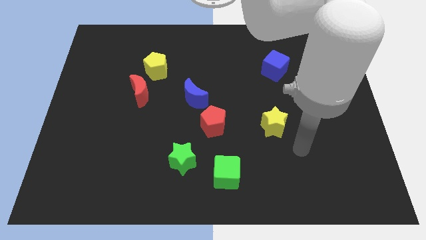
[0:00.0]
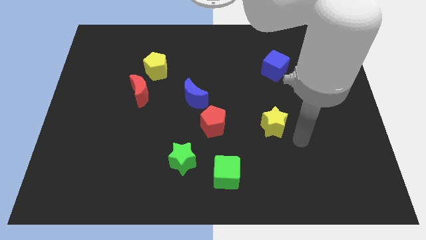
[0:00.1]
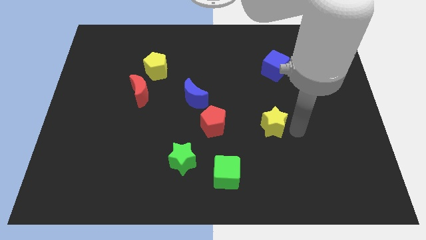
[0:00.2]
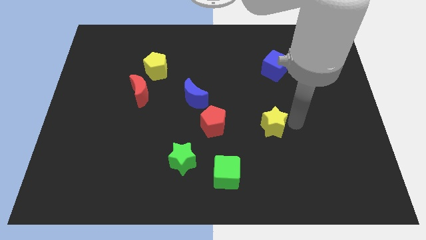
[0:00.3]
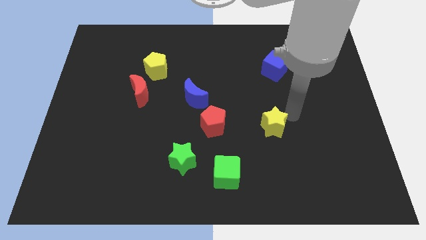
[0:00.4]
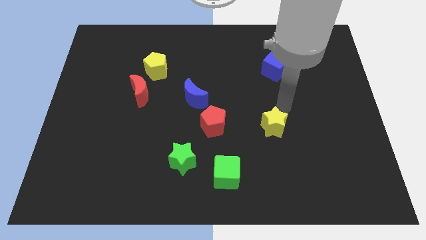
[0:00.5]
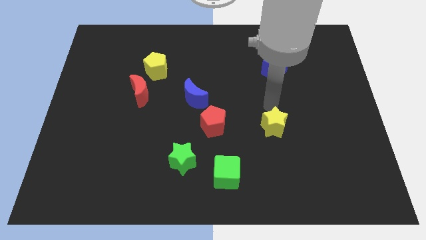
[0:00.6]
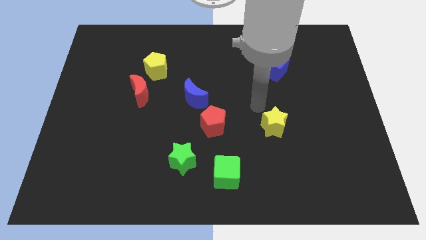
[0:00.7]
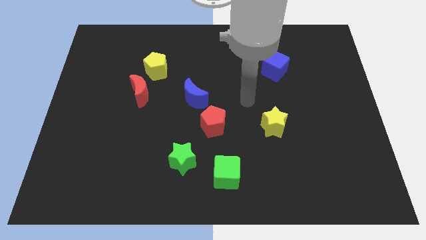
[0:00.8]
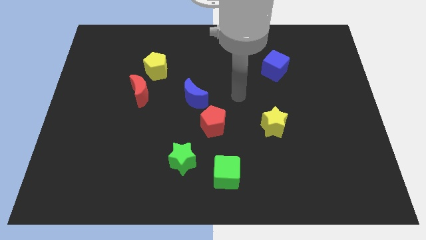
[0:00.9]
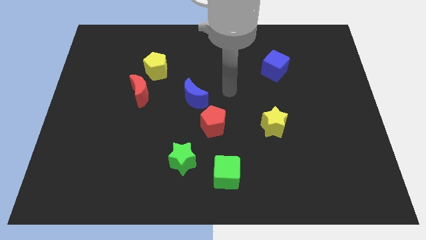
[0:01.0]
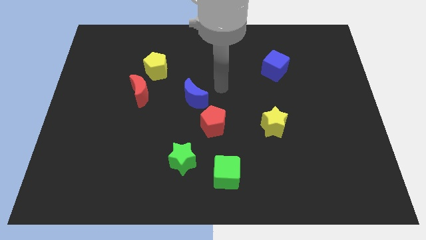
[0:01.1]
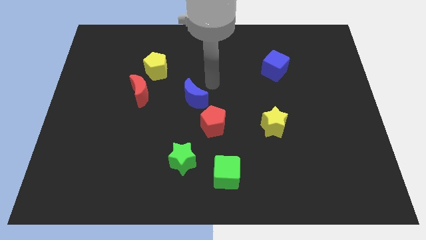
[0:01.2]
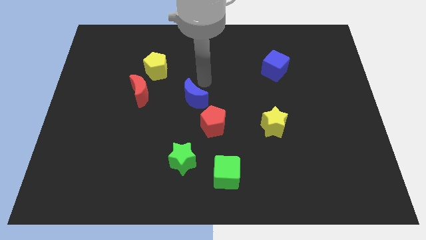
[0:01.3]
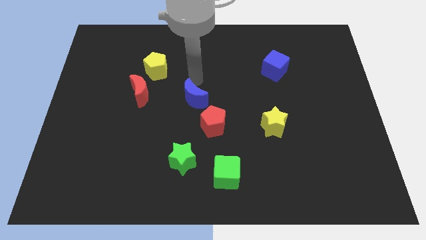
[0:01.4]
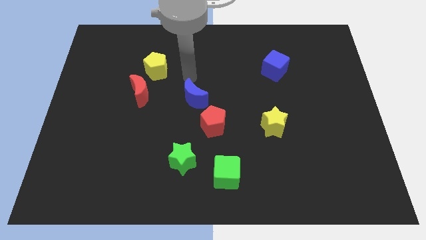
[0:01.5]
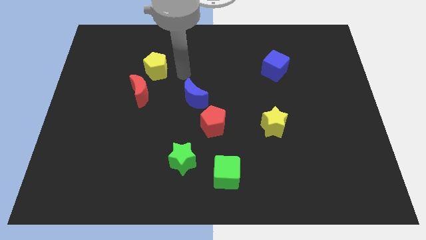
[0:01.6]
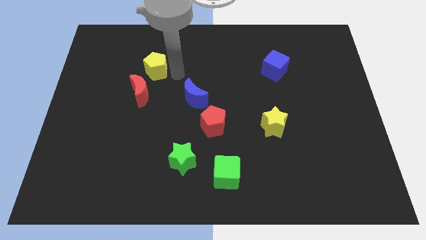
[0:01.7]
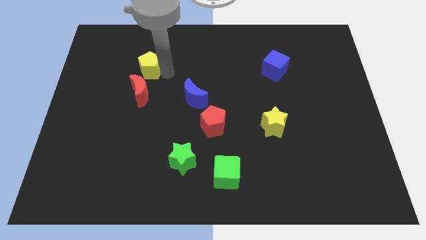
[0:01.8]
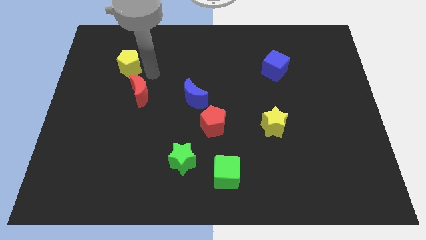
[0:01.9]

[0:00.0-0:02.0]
move the red moon away from the yellow pentagon

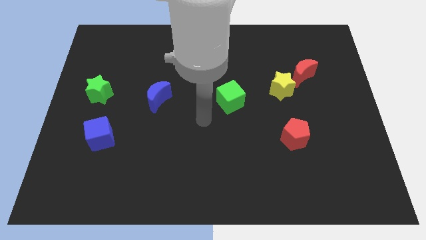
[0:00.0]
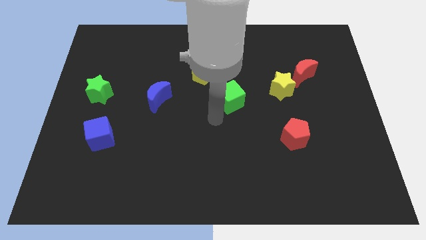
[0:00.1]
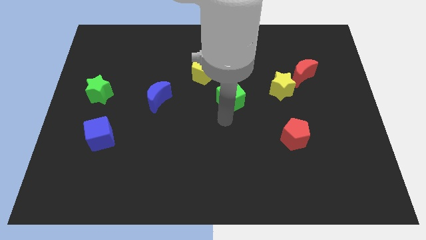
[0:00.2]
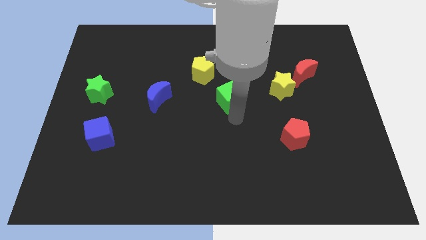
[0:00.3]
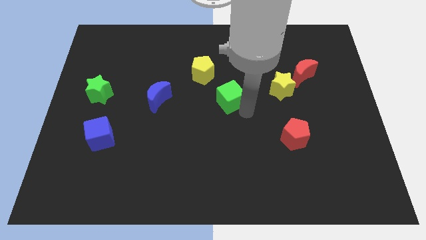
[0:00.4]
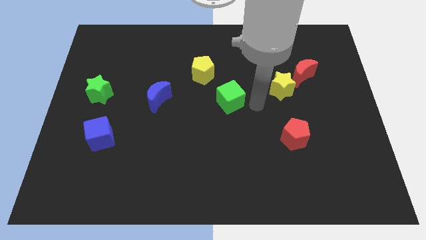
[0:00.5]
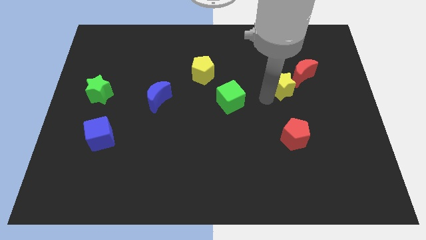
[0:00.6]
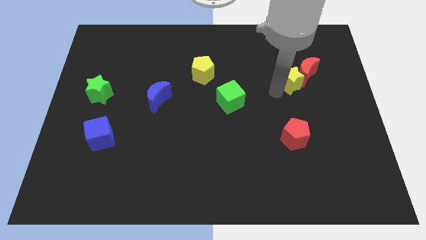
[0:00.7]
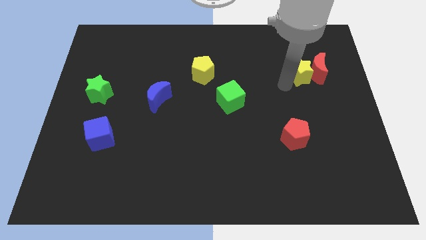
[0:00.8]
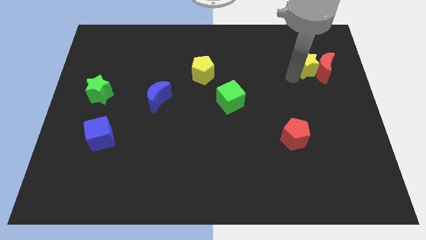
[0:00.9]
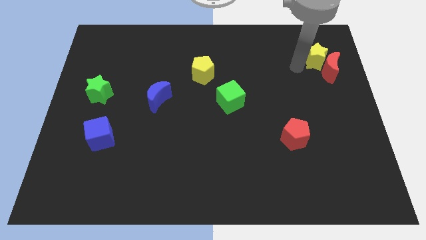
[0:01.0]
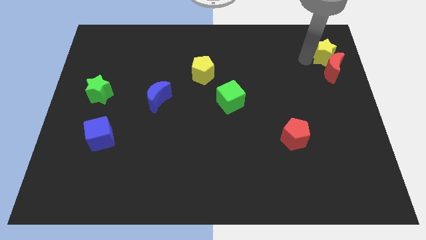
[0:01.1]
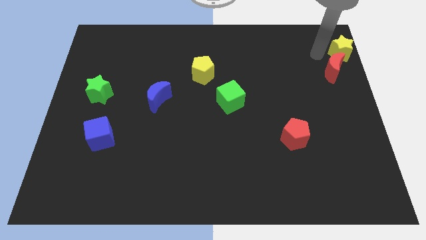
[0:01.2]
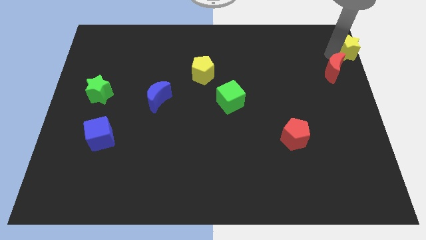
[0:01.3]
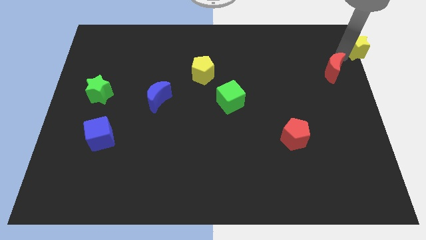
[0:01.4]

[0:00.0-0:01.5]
move the red moon away from the yellow star

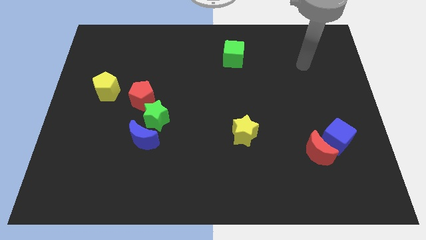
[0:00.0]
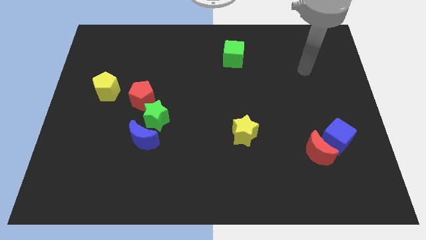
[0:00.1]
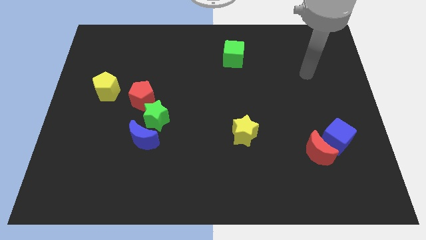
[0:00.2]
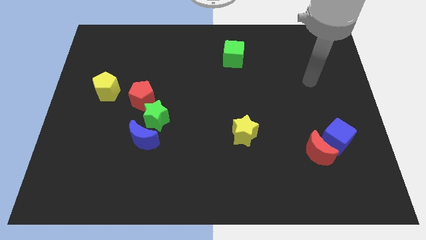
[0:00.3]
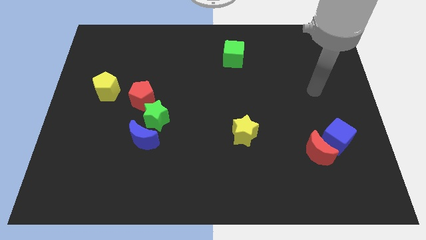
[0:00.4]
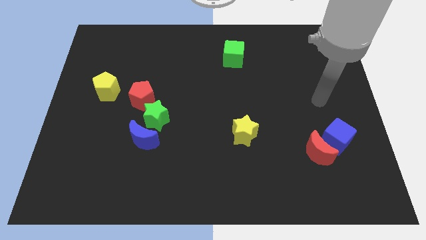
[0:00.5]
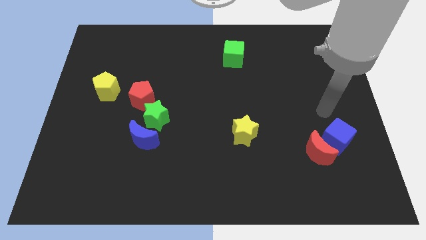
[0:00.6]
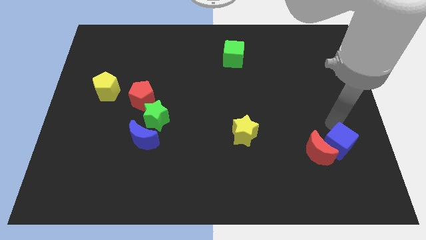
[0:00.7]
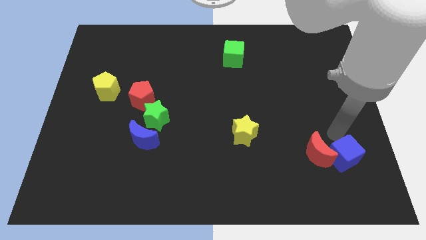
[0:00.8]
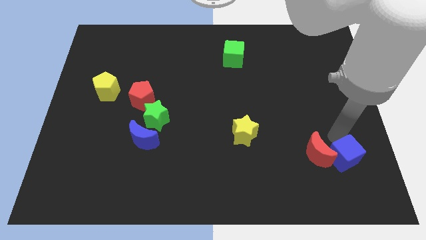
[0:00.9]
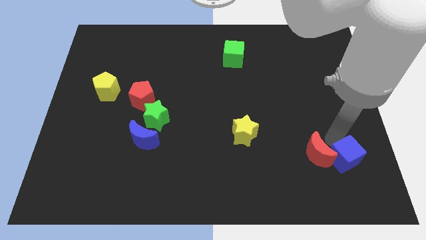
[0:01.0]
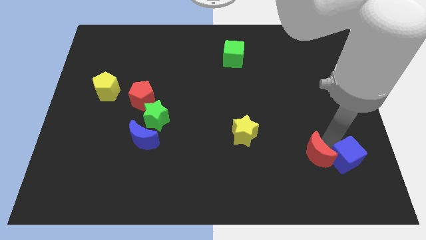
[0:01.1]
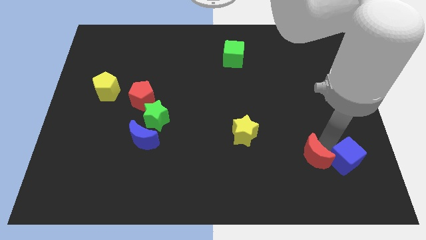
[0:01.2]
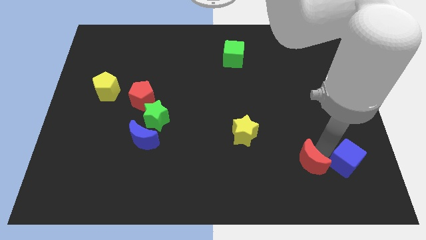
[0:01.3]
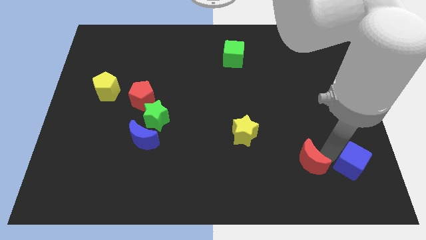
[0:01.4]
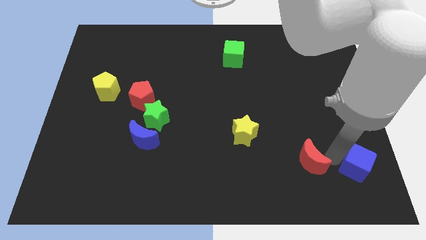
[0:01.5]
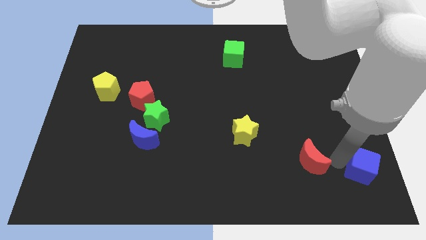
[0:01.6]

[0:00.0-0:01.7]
move the red moon away from the blue cube

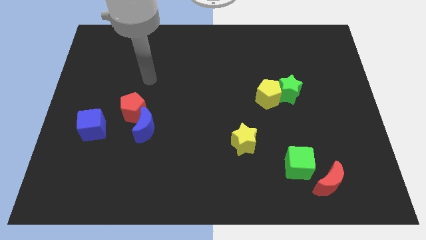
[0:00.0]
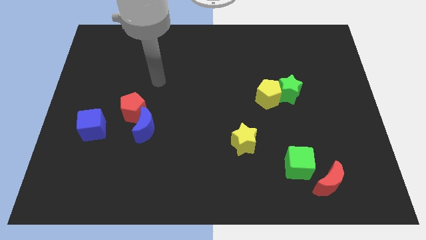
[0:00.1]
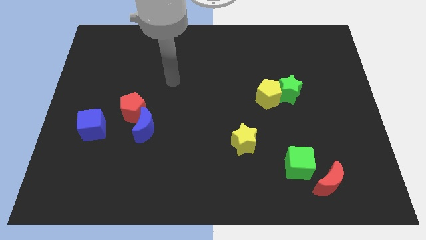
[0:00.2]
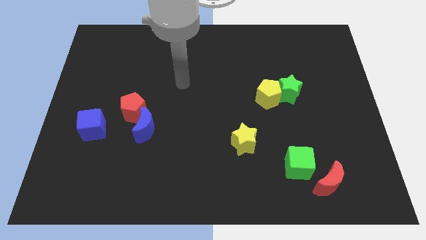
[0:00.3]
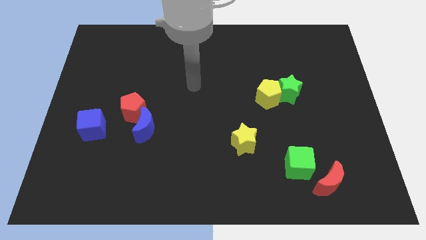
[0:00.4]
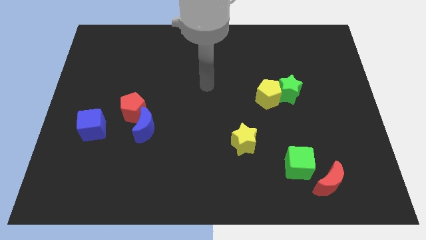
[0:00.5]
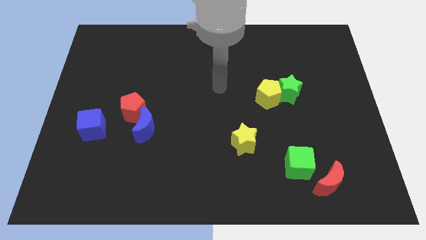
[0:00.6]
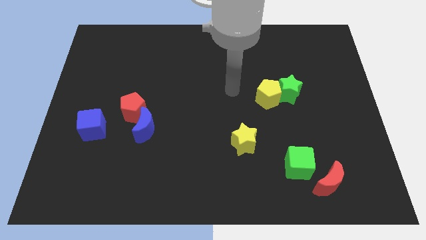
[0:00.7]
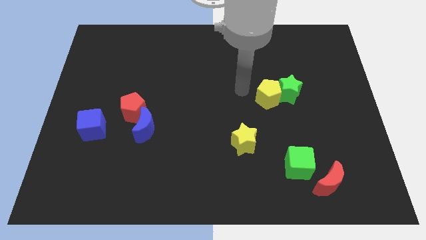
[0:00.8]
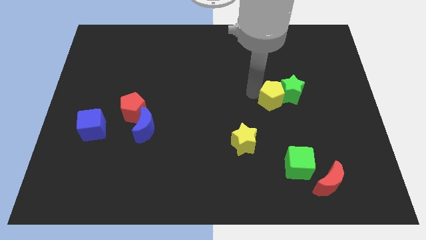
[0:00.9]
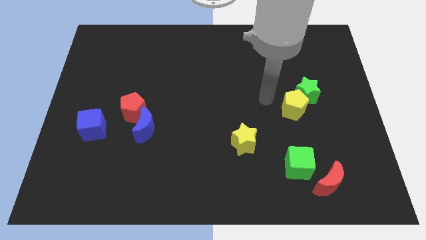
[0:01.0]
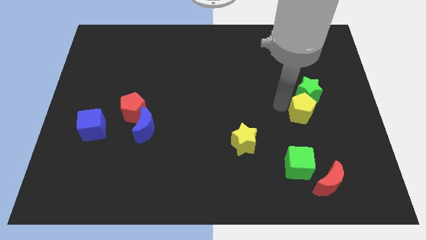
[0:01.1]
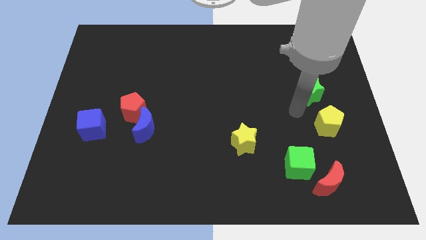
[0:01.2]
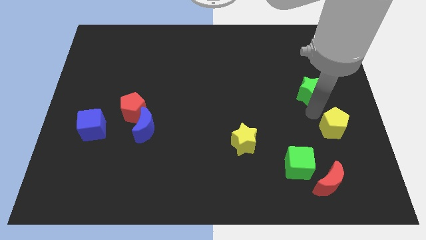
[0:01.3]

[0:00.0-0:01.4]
separate the green star from the yellow pentagon

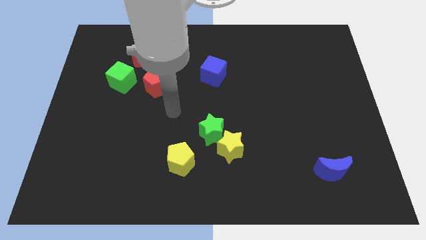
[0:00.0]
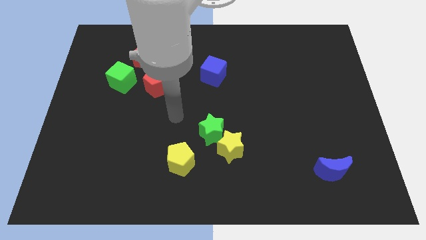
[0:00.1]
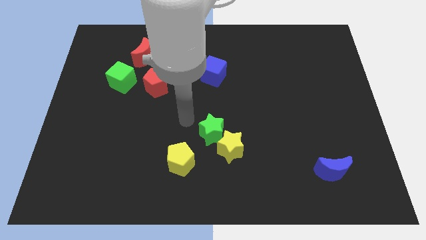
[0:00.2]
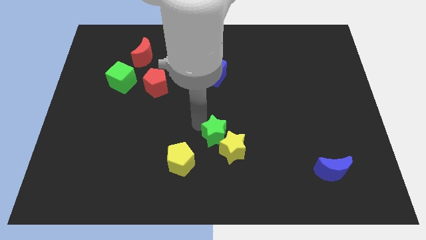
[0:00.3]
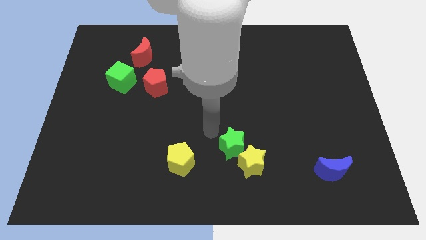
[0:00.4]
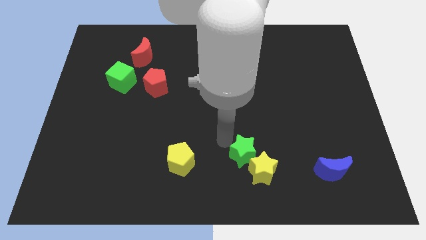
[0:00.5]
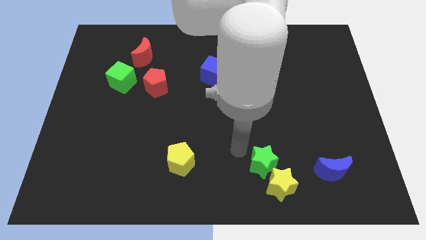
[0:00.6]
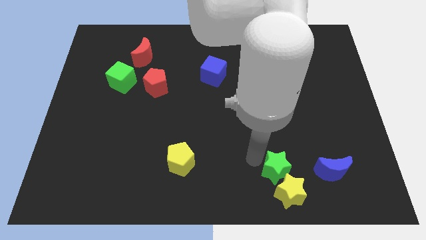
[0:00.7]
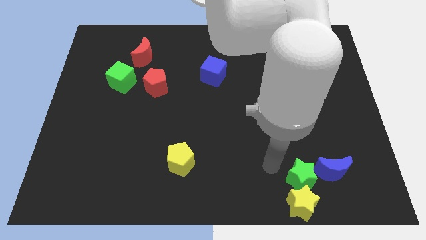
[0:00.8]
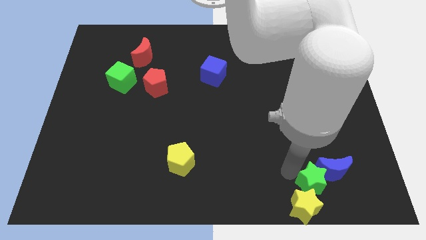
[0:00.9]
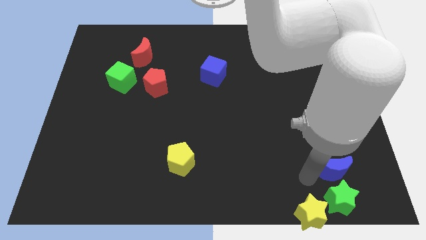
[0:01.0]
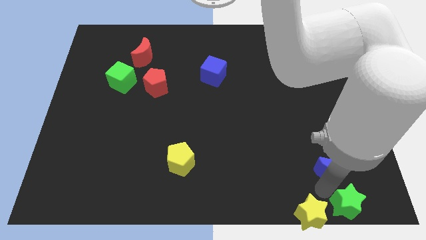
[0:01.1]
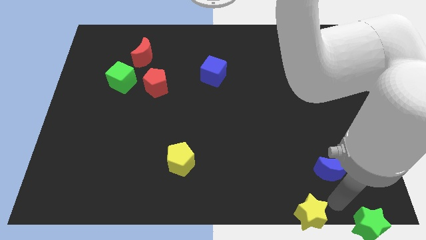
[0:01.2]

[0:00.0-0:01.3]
move the yellow star away from the green star

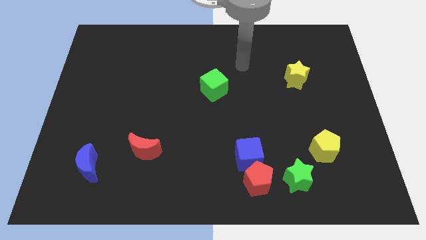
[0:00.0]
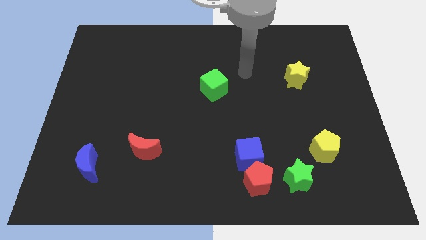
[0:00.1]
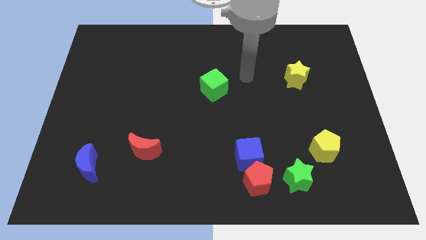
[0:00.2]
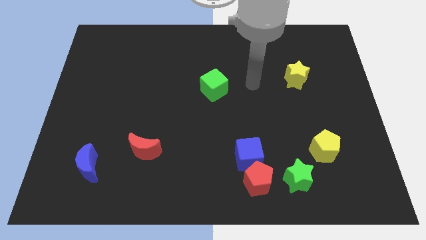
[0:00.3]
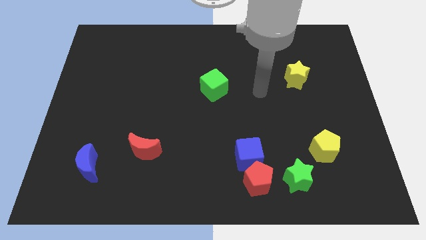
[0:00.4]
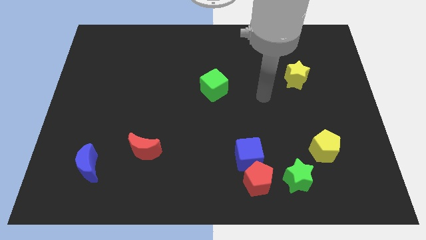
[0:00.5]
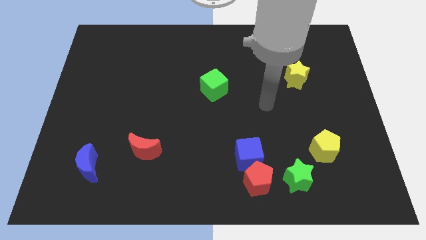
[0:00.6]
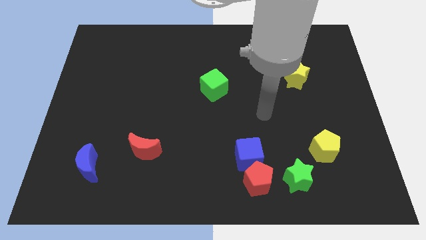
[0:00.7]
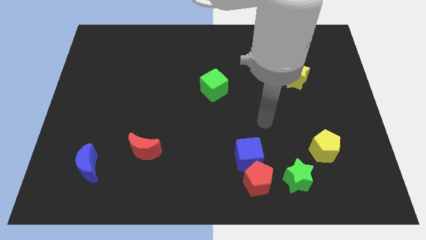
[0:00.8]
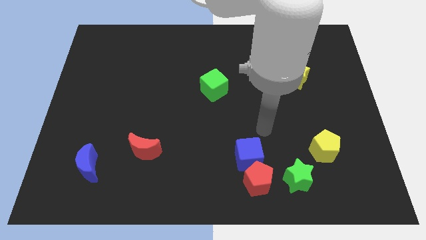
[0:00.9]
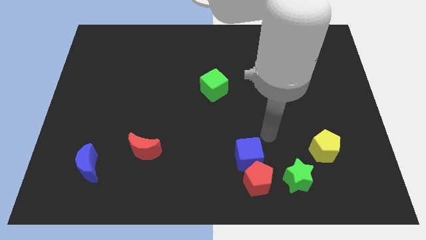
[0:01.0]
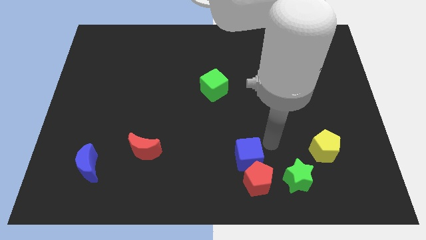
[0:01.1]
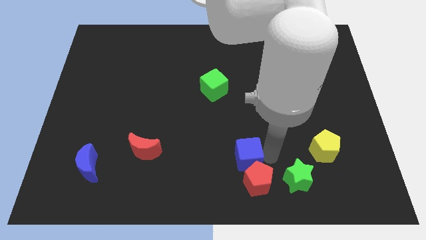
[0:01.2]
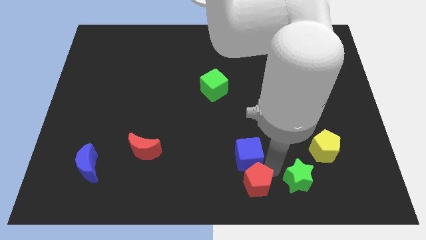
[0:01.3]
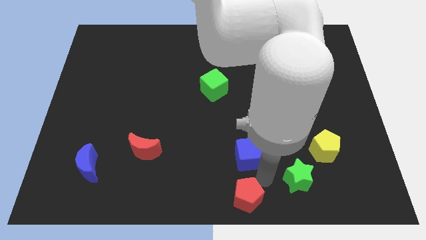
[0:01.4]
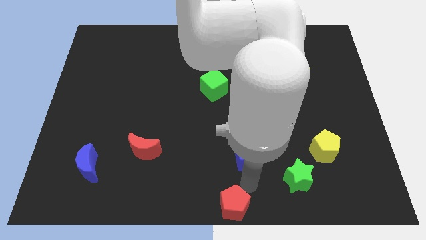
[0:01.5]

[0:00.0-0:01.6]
separate the blue cube from the red pentagon
